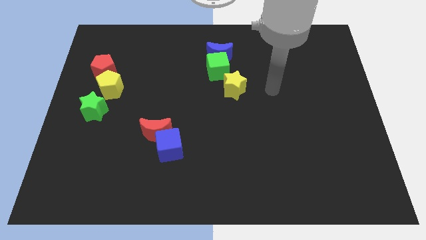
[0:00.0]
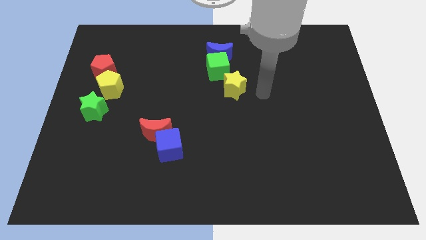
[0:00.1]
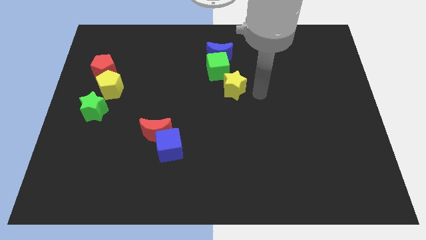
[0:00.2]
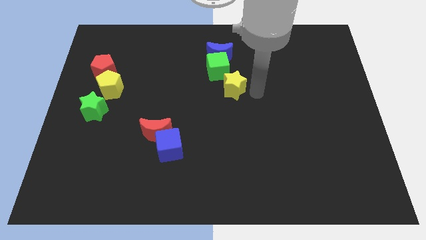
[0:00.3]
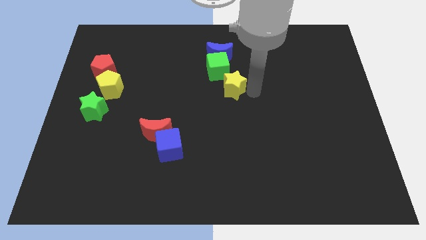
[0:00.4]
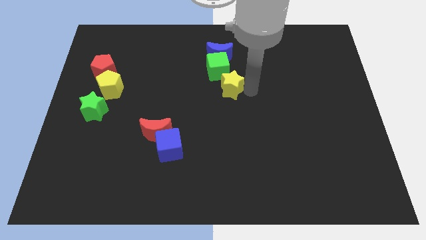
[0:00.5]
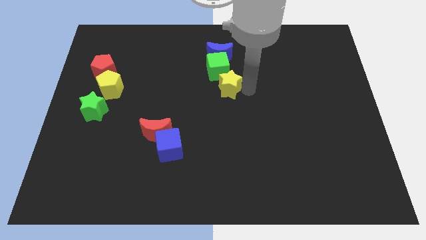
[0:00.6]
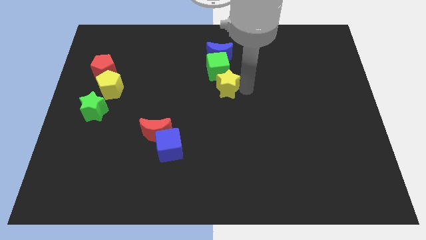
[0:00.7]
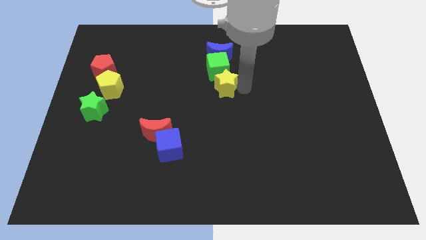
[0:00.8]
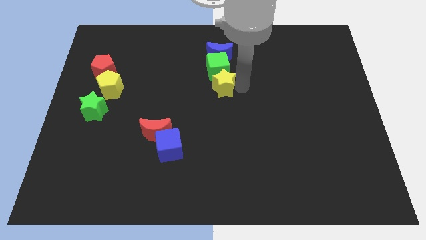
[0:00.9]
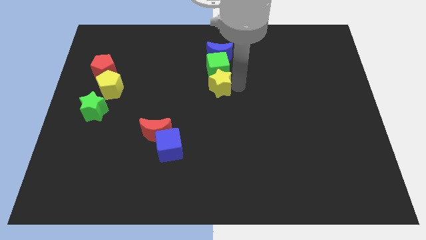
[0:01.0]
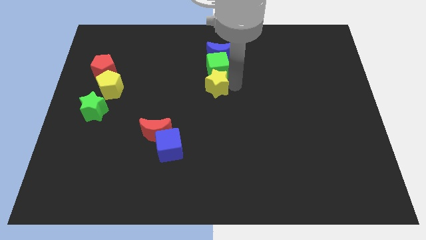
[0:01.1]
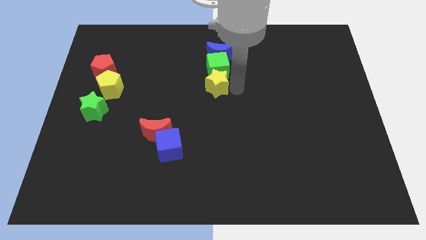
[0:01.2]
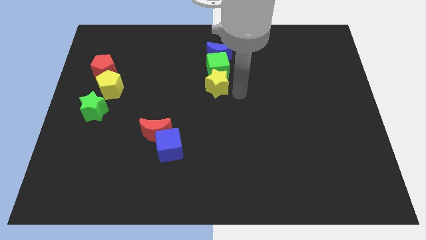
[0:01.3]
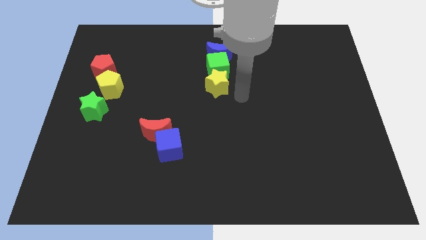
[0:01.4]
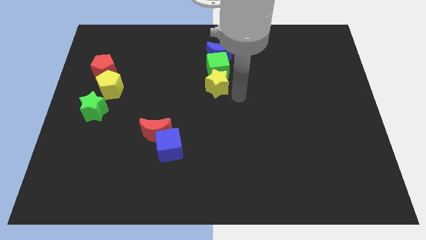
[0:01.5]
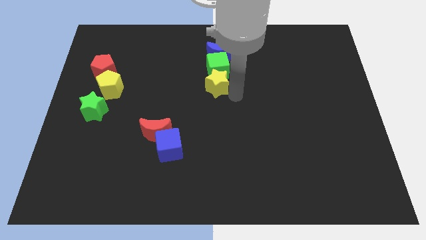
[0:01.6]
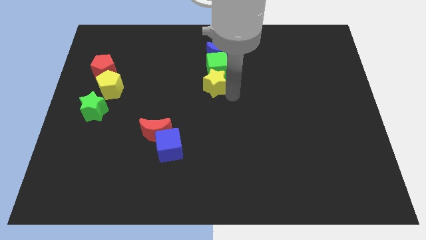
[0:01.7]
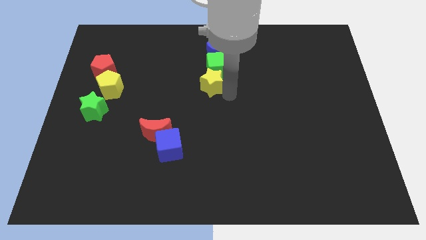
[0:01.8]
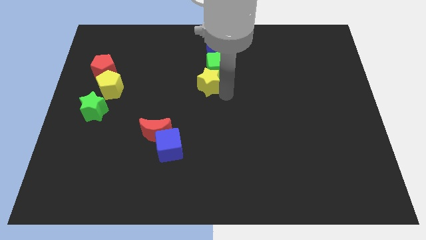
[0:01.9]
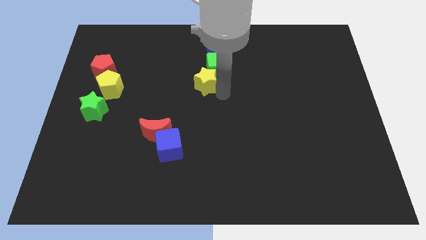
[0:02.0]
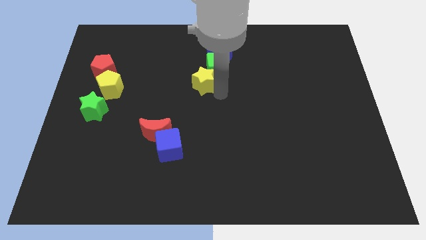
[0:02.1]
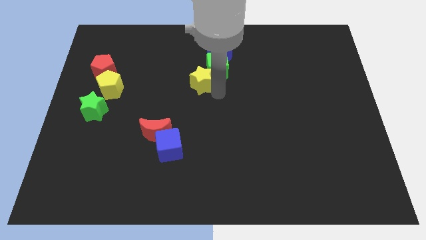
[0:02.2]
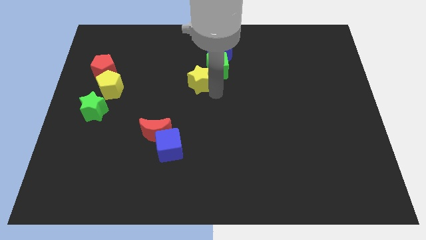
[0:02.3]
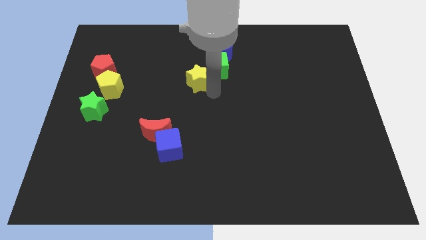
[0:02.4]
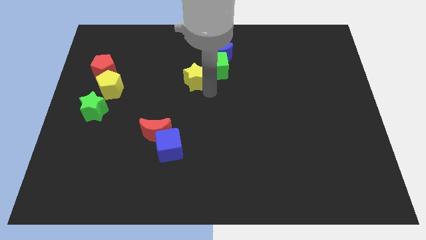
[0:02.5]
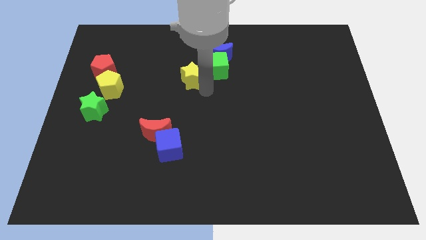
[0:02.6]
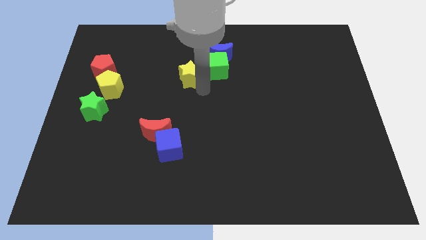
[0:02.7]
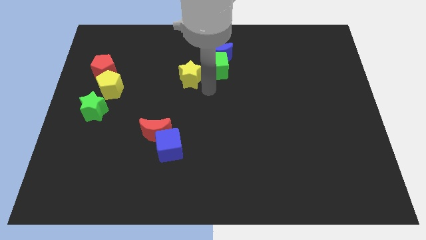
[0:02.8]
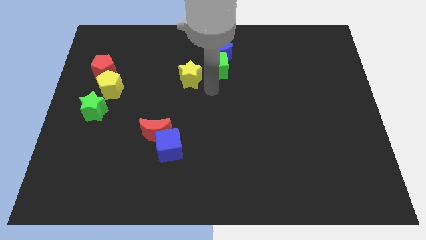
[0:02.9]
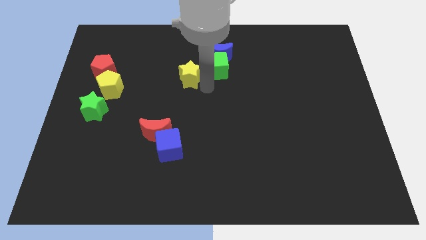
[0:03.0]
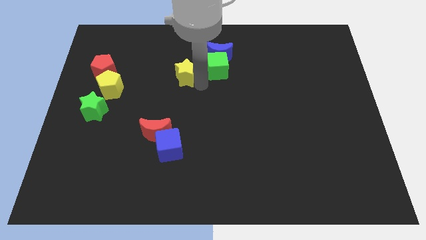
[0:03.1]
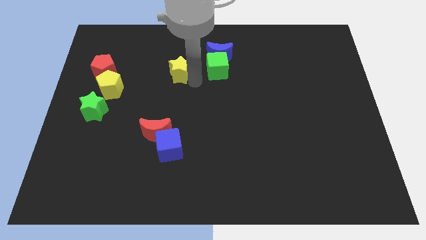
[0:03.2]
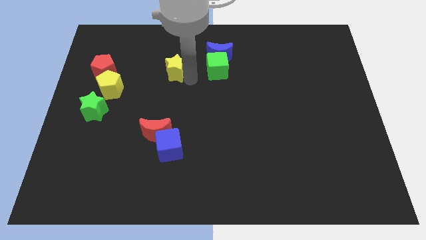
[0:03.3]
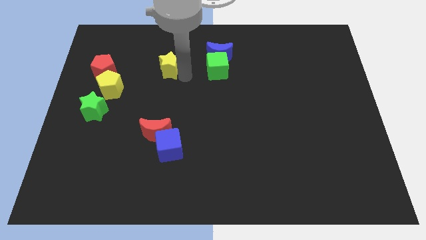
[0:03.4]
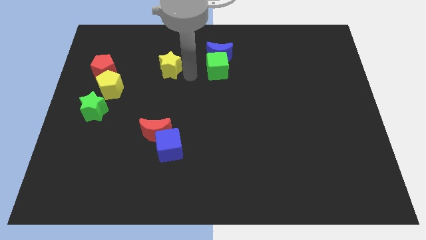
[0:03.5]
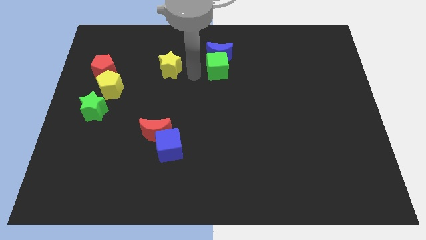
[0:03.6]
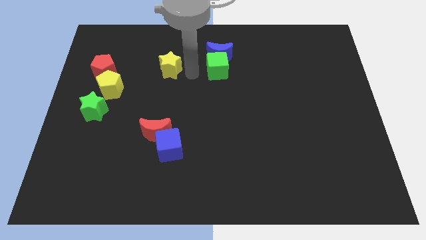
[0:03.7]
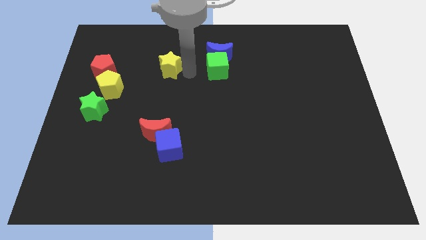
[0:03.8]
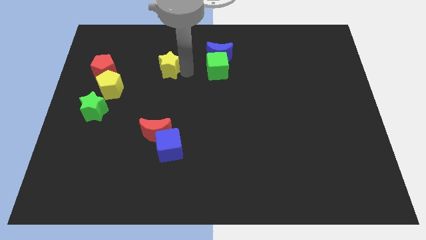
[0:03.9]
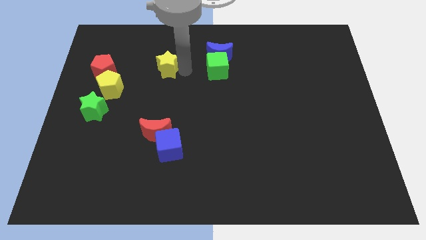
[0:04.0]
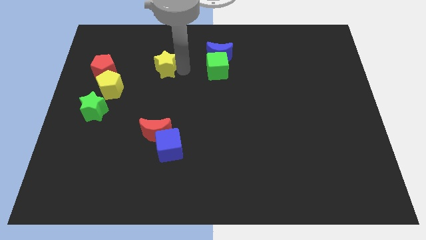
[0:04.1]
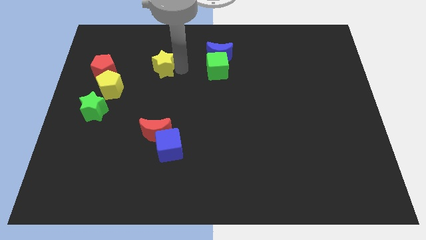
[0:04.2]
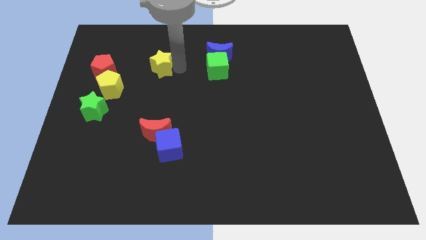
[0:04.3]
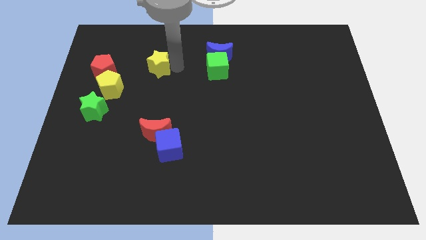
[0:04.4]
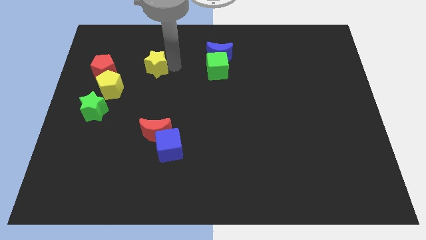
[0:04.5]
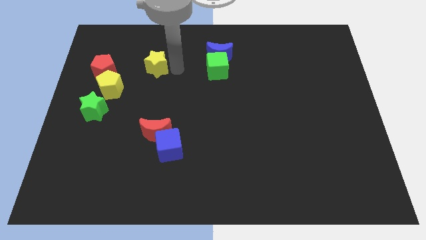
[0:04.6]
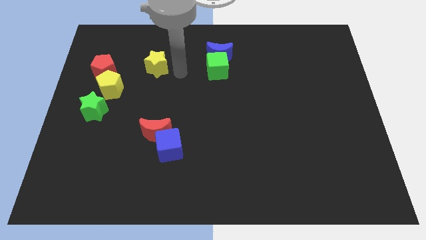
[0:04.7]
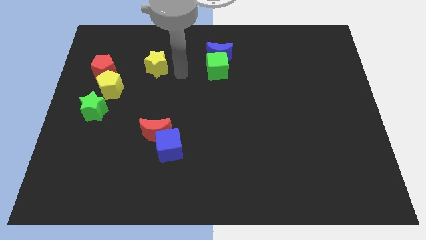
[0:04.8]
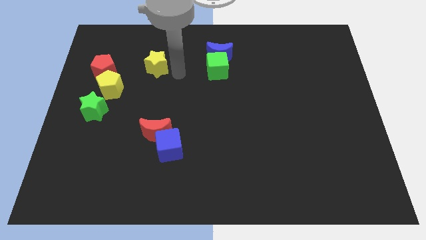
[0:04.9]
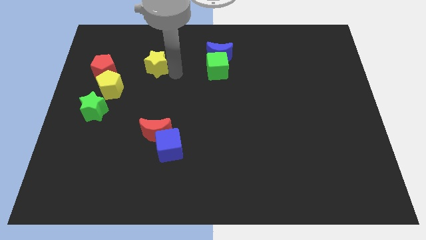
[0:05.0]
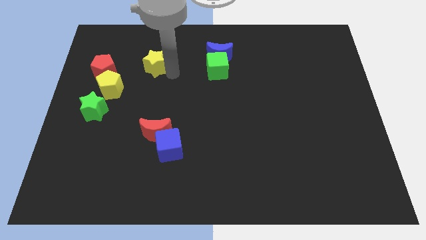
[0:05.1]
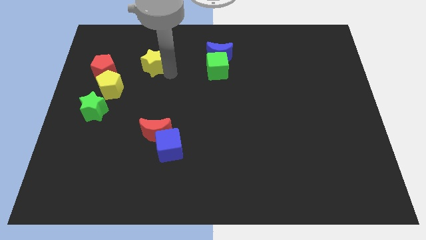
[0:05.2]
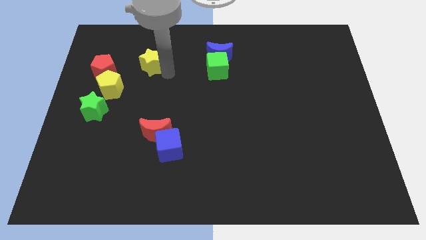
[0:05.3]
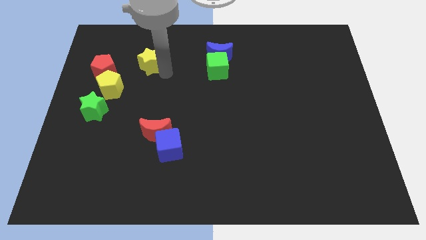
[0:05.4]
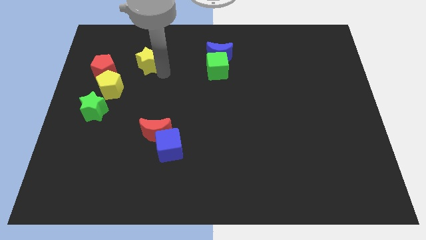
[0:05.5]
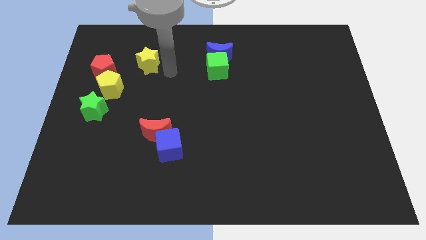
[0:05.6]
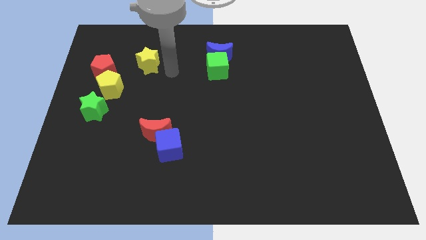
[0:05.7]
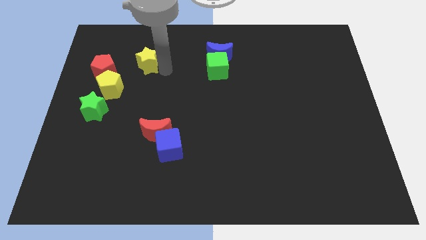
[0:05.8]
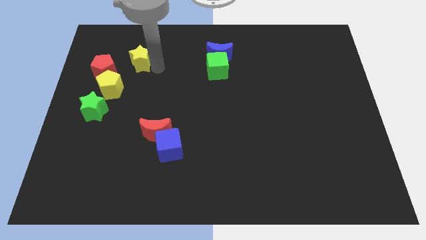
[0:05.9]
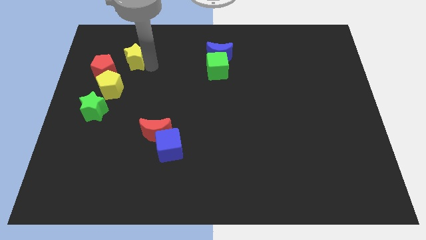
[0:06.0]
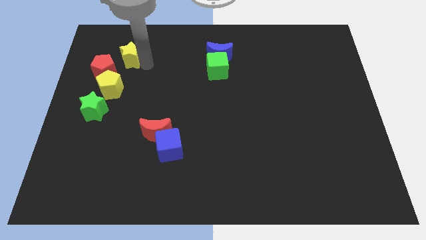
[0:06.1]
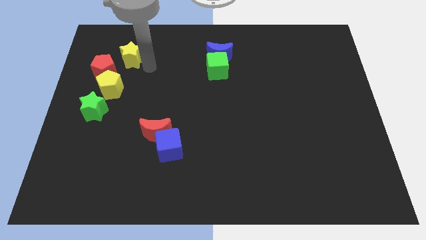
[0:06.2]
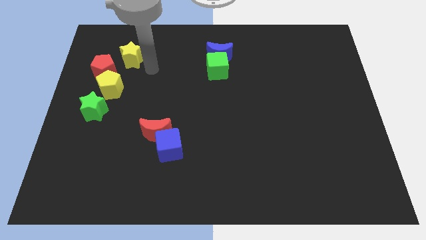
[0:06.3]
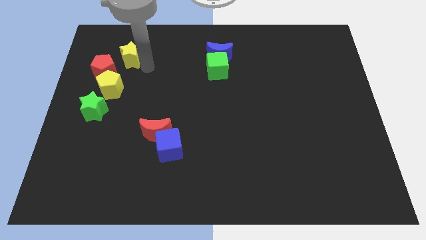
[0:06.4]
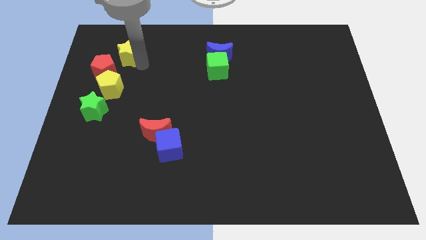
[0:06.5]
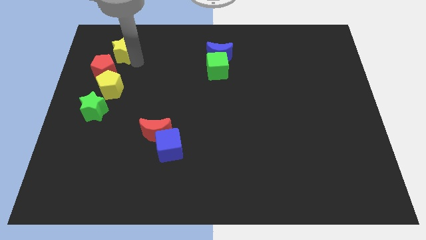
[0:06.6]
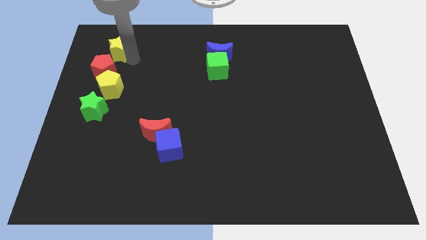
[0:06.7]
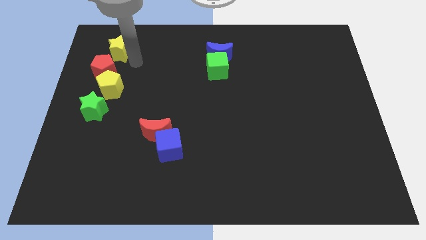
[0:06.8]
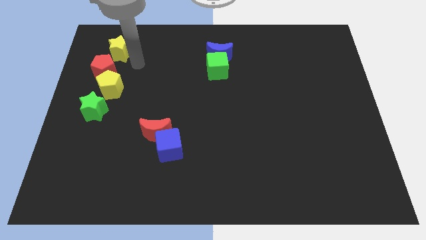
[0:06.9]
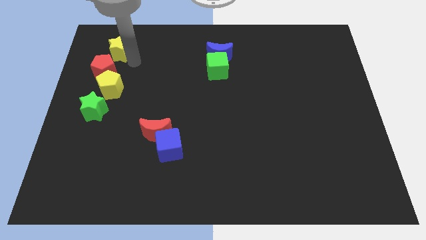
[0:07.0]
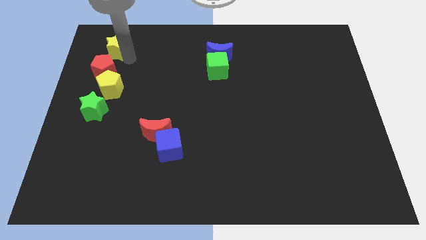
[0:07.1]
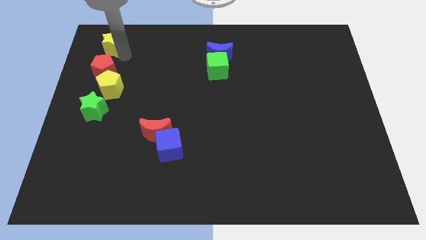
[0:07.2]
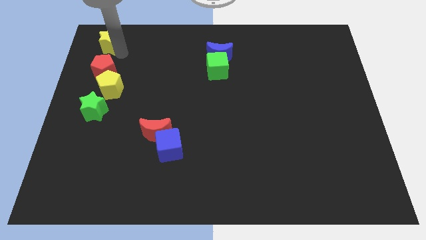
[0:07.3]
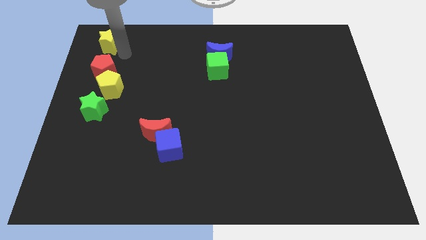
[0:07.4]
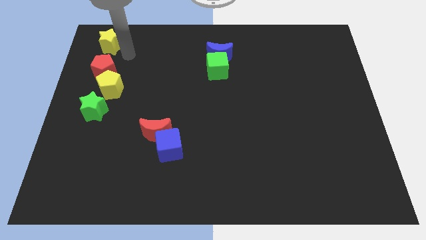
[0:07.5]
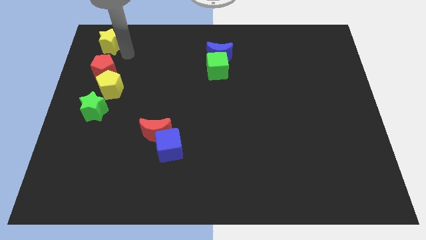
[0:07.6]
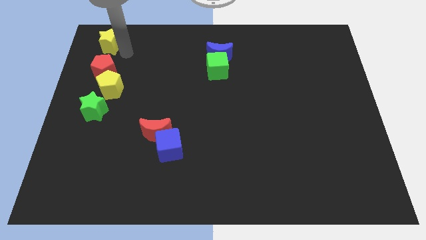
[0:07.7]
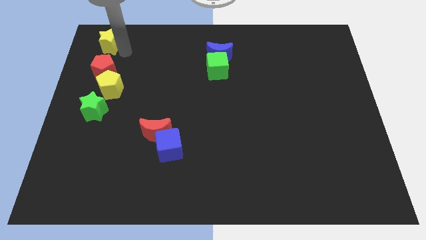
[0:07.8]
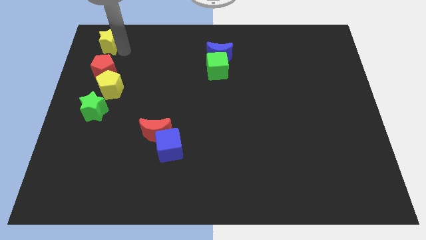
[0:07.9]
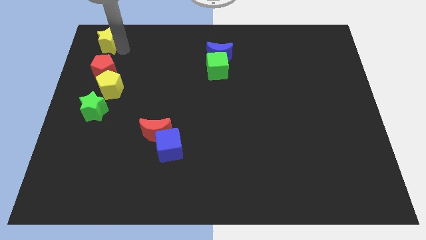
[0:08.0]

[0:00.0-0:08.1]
move the yellow star to the upper left corner
